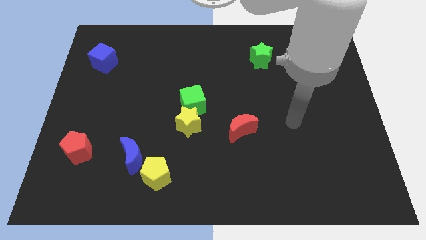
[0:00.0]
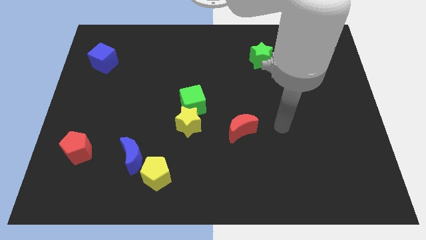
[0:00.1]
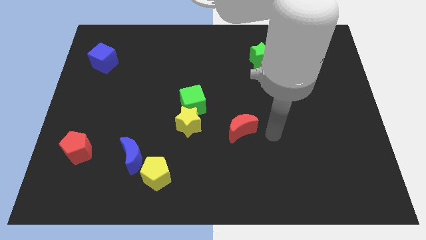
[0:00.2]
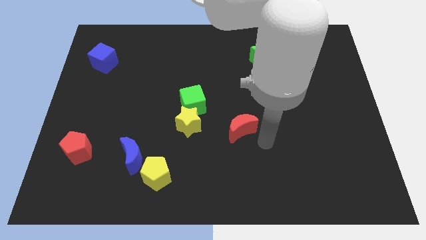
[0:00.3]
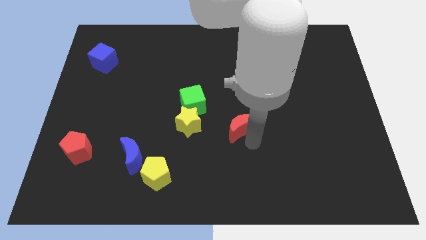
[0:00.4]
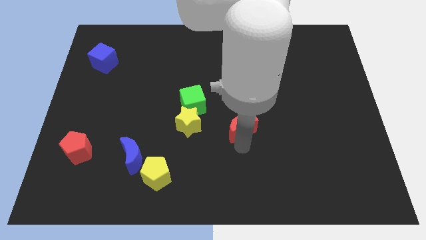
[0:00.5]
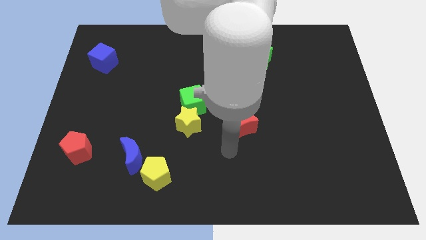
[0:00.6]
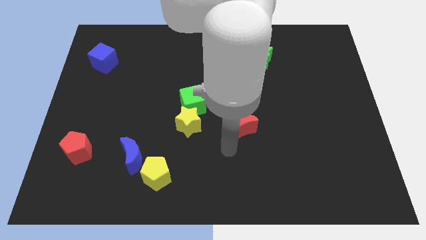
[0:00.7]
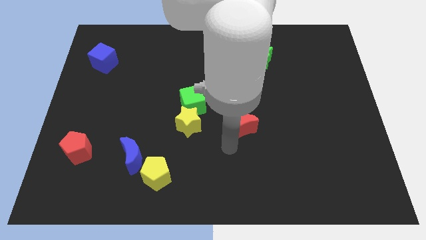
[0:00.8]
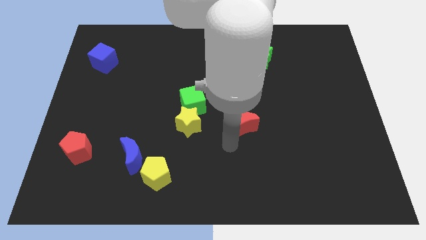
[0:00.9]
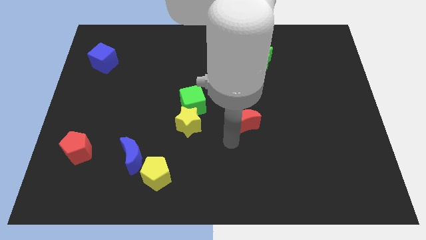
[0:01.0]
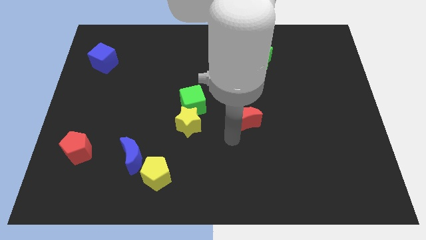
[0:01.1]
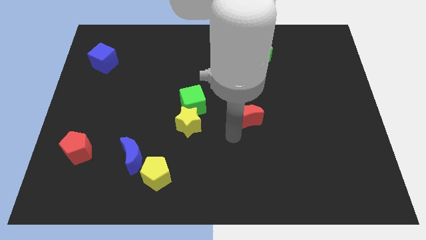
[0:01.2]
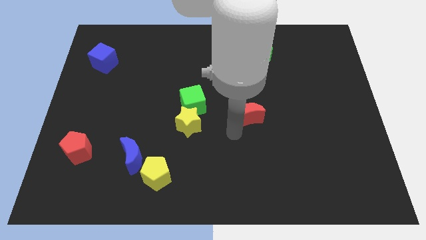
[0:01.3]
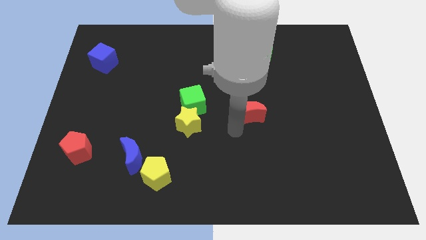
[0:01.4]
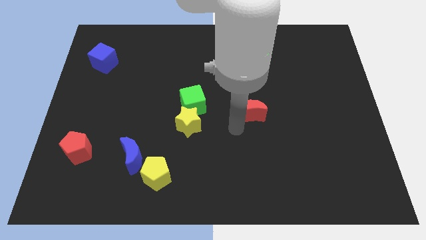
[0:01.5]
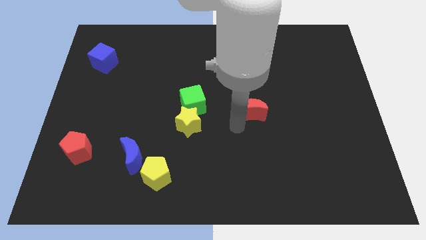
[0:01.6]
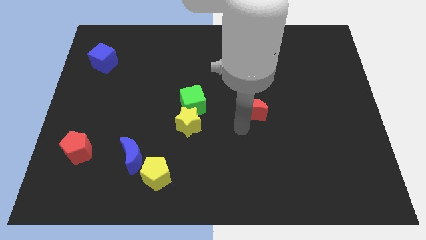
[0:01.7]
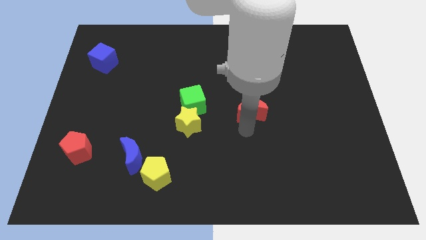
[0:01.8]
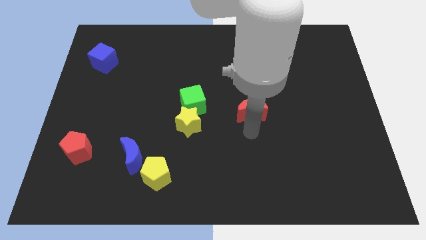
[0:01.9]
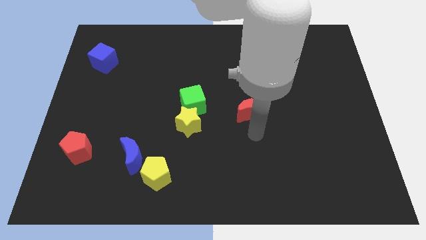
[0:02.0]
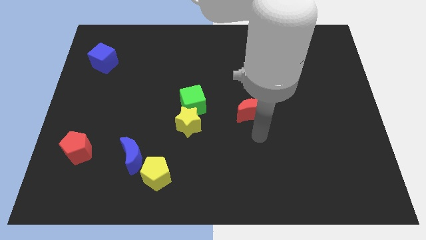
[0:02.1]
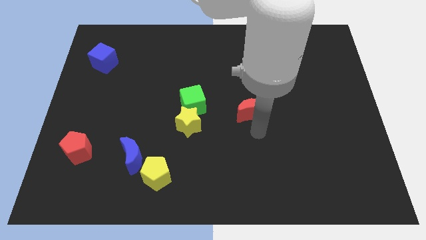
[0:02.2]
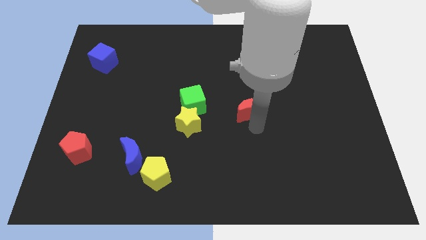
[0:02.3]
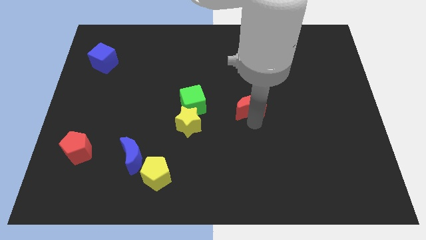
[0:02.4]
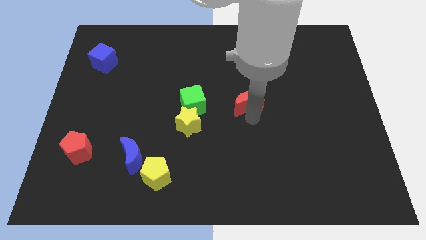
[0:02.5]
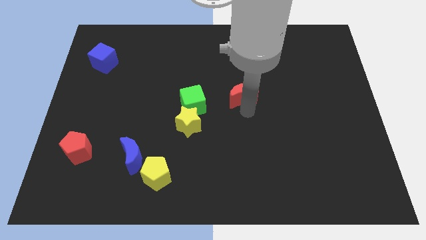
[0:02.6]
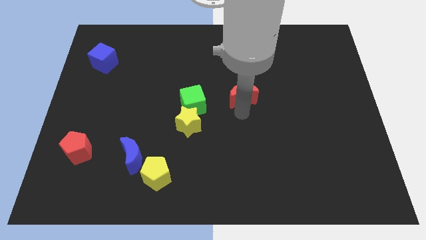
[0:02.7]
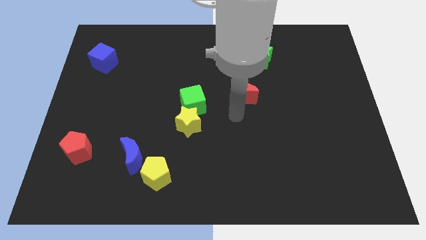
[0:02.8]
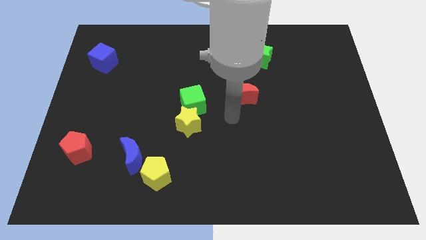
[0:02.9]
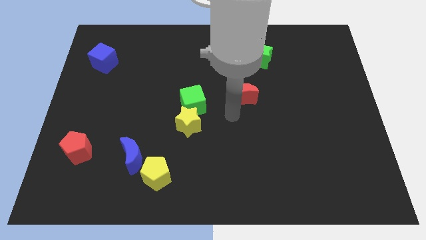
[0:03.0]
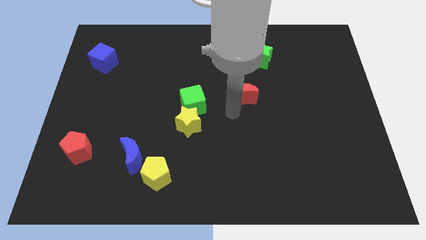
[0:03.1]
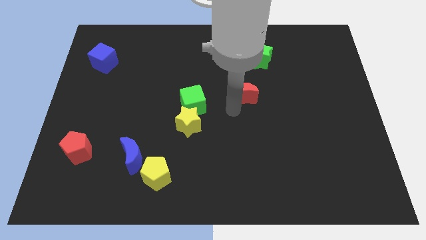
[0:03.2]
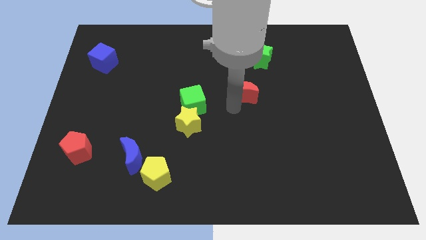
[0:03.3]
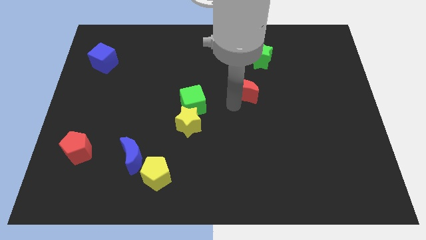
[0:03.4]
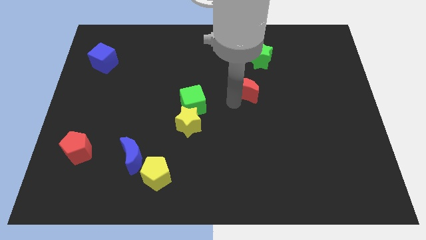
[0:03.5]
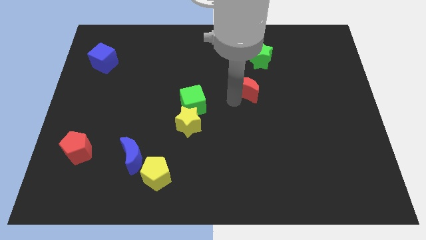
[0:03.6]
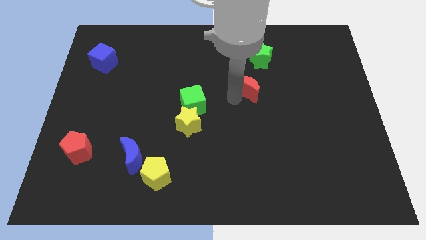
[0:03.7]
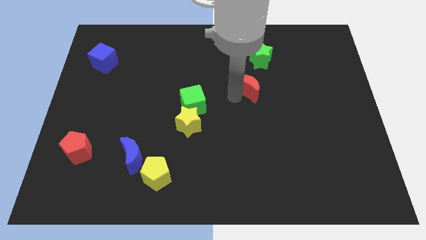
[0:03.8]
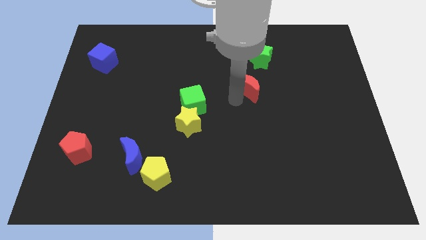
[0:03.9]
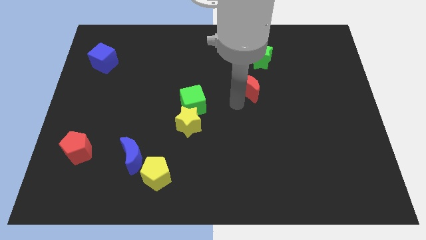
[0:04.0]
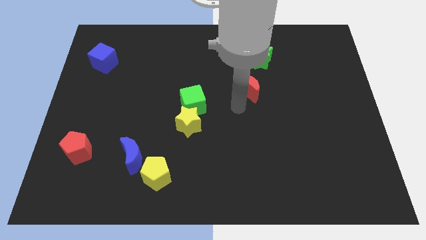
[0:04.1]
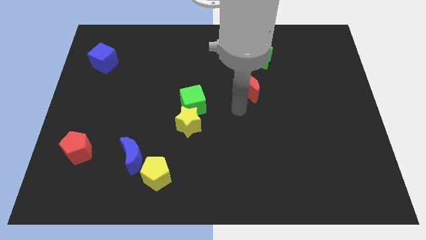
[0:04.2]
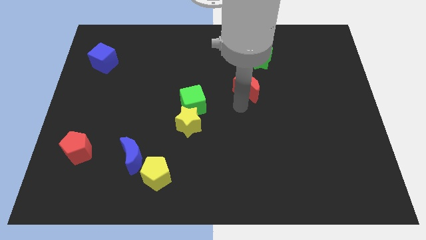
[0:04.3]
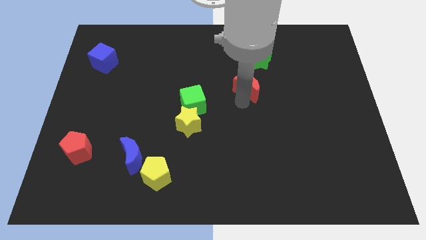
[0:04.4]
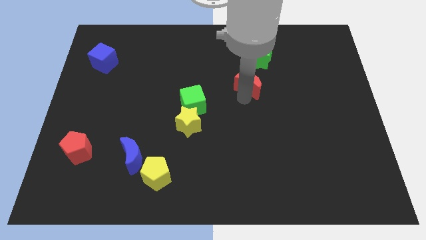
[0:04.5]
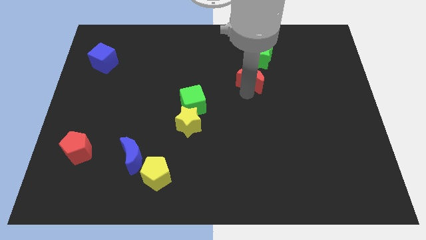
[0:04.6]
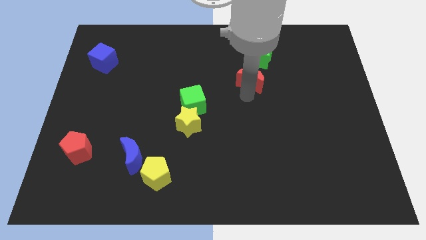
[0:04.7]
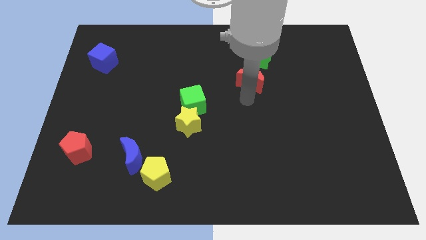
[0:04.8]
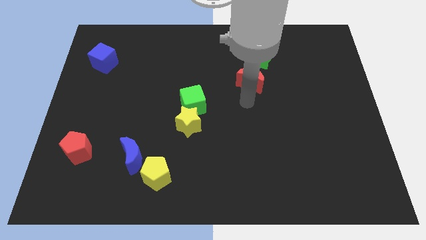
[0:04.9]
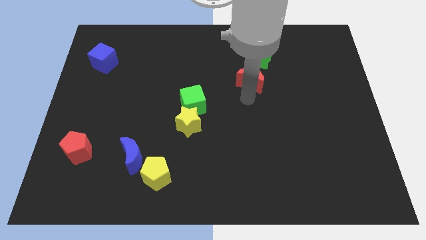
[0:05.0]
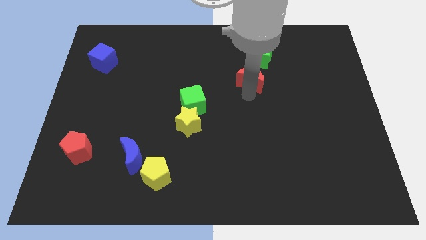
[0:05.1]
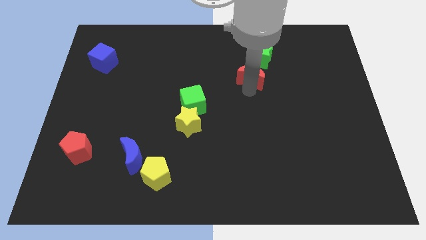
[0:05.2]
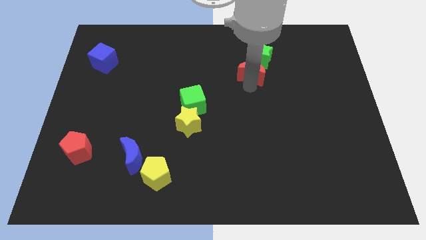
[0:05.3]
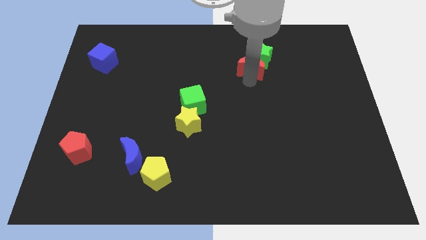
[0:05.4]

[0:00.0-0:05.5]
push the red moon to the green star

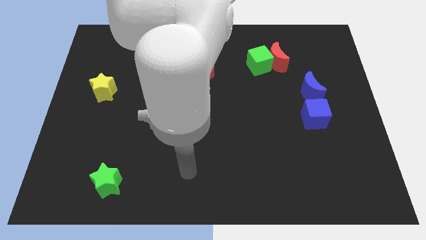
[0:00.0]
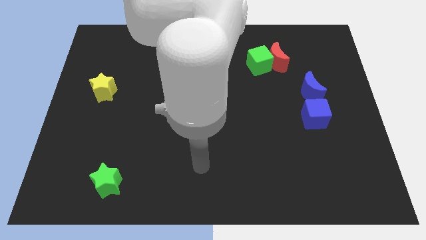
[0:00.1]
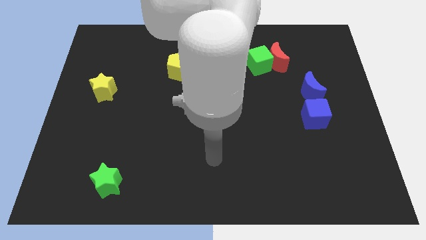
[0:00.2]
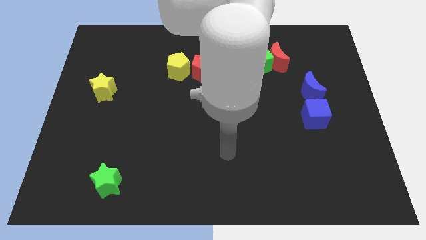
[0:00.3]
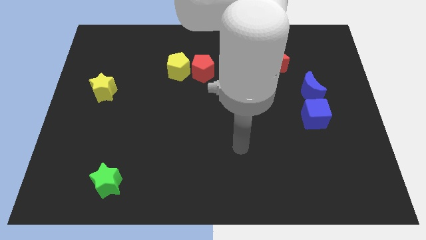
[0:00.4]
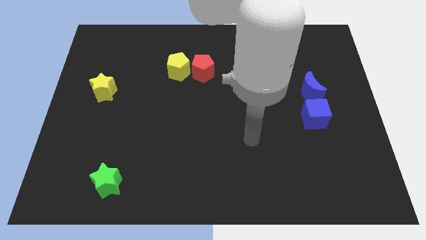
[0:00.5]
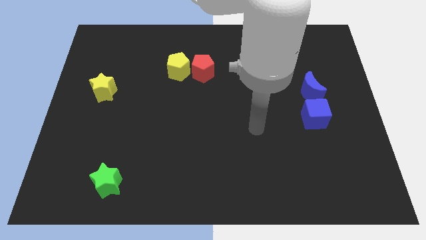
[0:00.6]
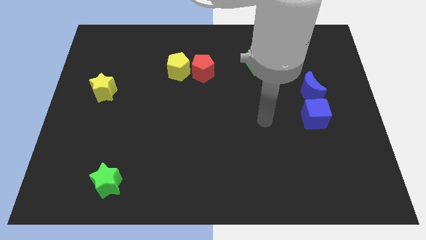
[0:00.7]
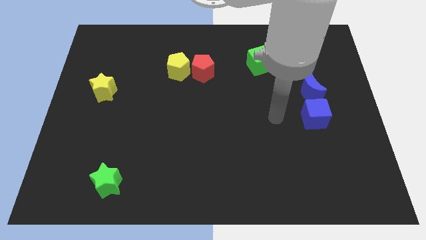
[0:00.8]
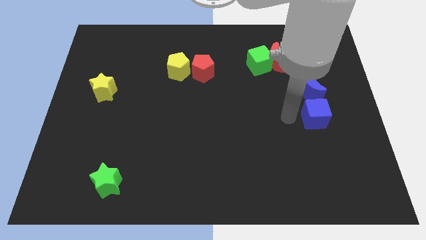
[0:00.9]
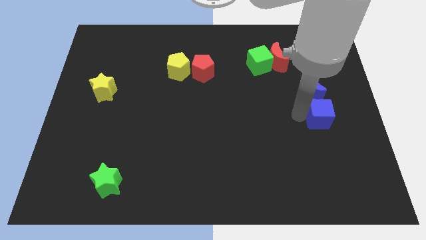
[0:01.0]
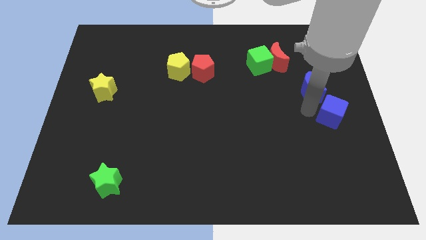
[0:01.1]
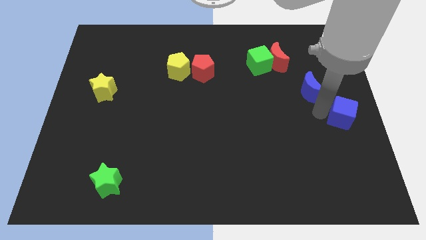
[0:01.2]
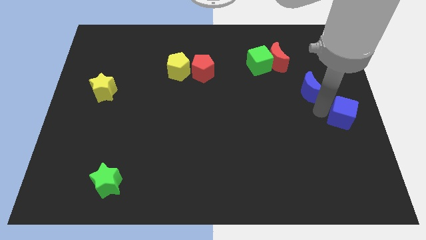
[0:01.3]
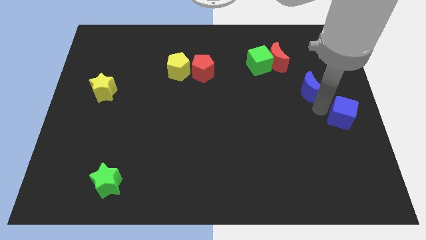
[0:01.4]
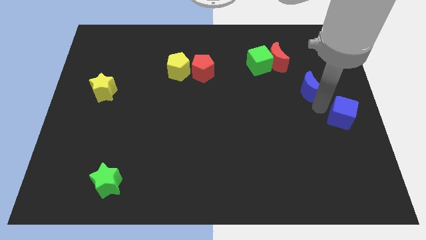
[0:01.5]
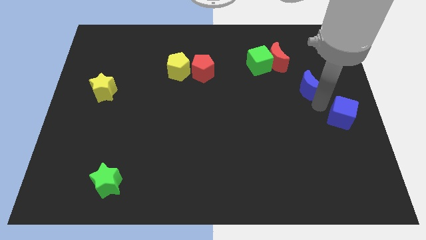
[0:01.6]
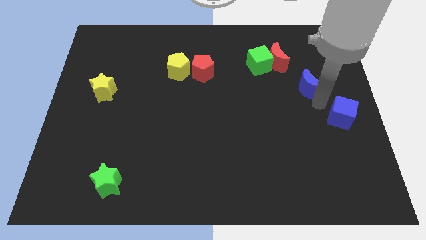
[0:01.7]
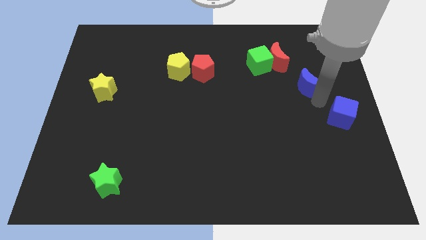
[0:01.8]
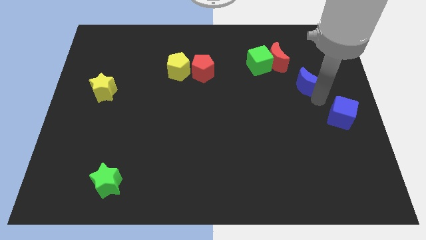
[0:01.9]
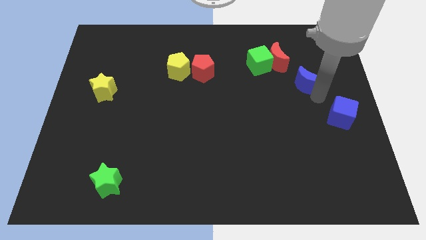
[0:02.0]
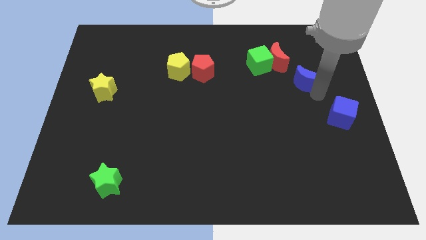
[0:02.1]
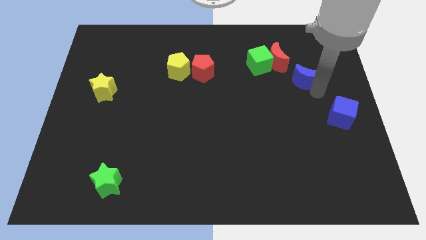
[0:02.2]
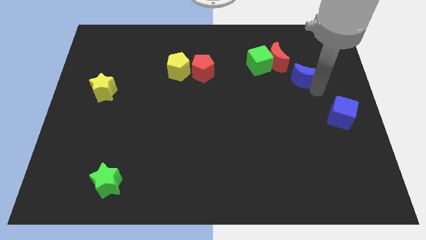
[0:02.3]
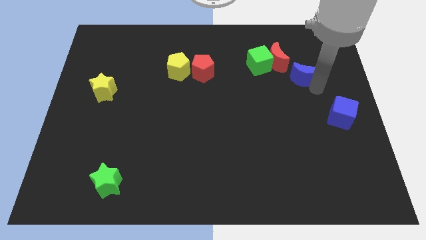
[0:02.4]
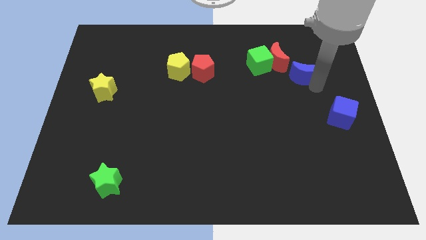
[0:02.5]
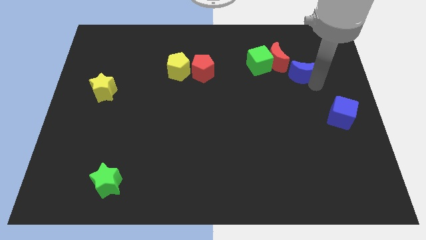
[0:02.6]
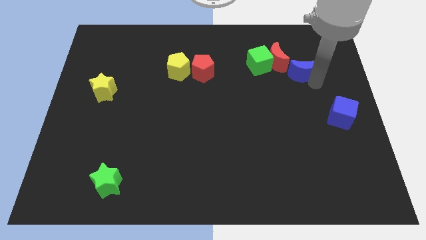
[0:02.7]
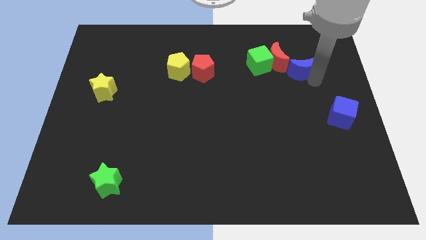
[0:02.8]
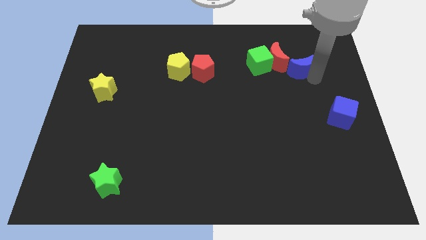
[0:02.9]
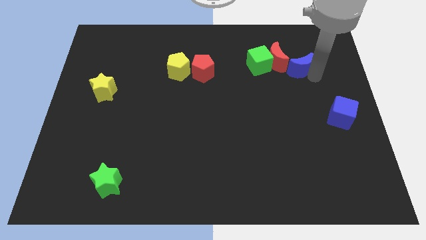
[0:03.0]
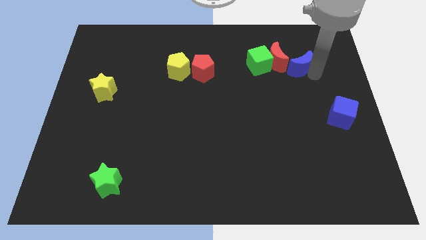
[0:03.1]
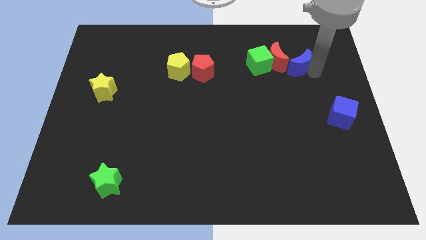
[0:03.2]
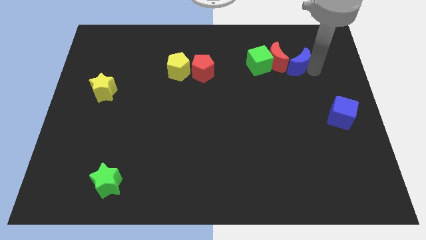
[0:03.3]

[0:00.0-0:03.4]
slide the blue moon to the red moon
